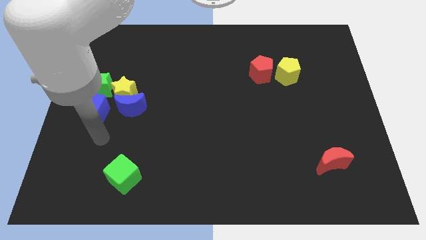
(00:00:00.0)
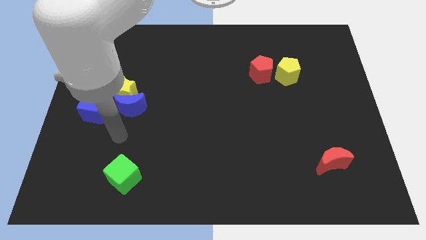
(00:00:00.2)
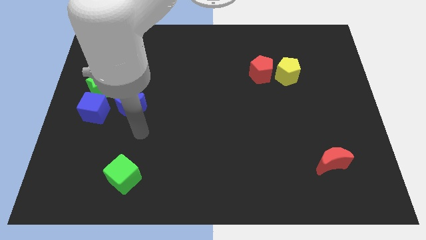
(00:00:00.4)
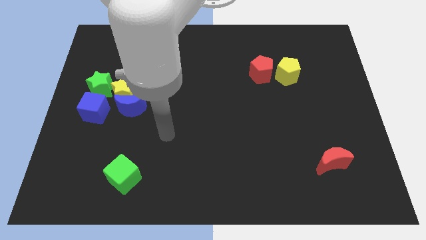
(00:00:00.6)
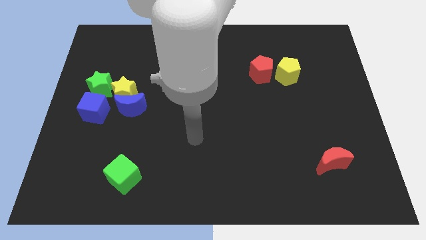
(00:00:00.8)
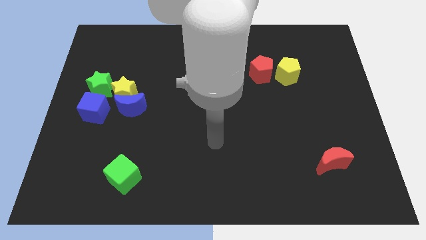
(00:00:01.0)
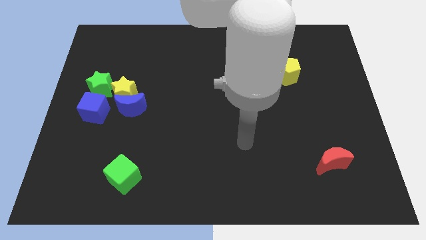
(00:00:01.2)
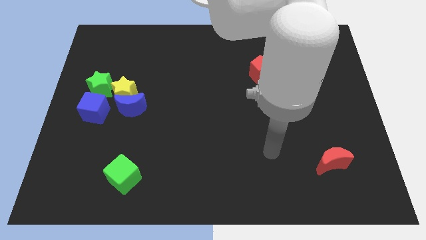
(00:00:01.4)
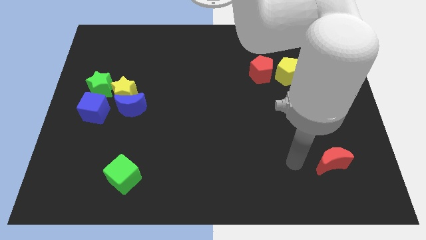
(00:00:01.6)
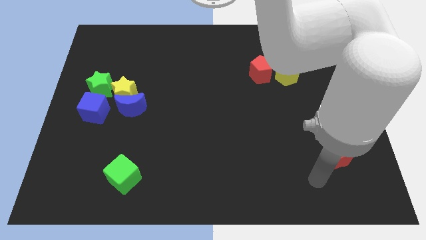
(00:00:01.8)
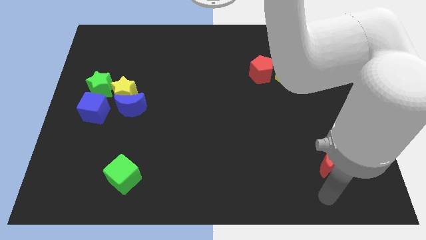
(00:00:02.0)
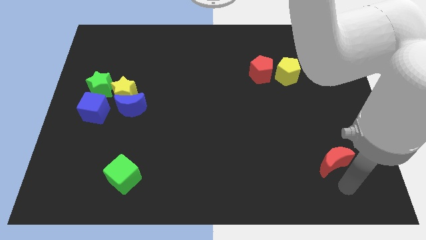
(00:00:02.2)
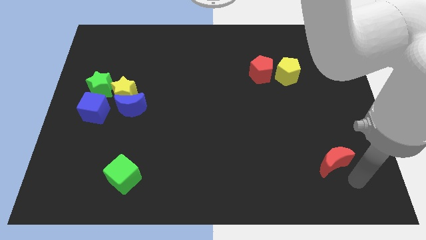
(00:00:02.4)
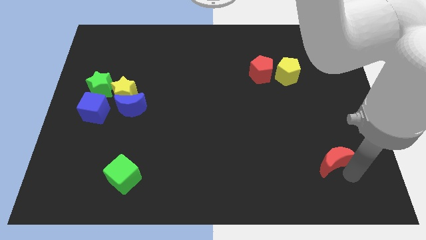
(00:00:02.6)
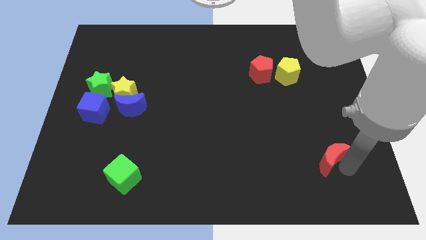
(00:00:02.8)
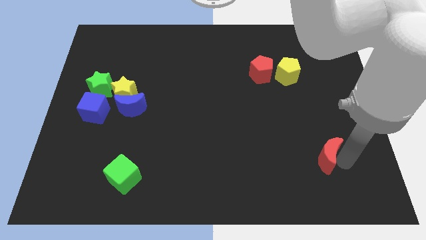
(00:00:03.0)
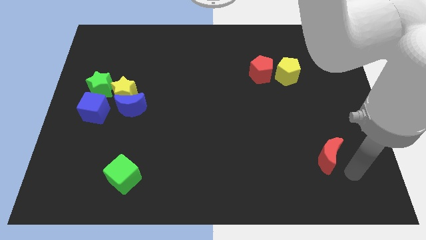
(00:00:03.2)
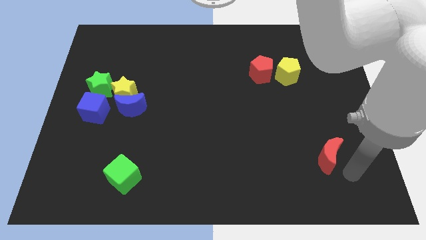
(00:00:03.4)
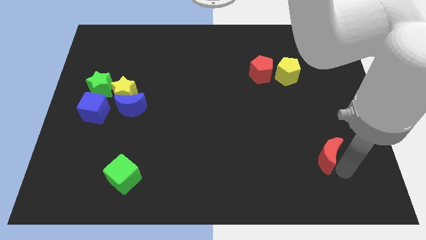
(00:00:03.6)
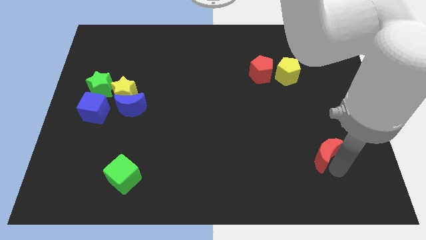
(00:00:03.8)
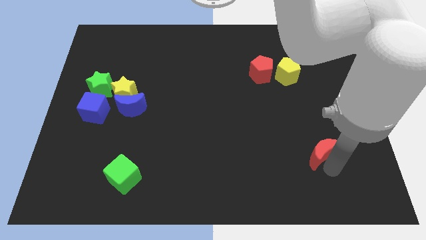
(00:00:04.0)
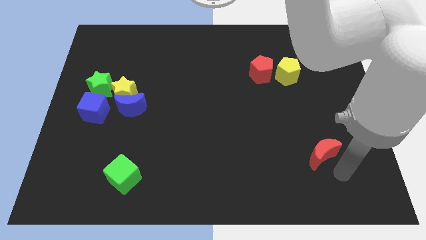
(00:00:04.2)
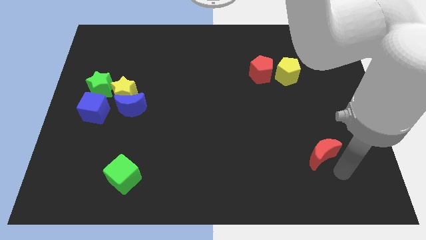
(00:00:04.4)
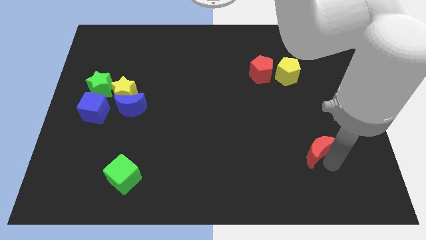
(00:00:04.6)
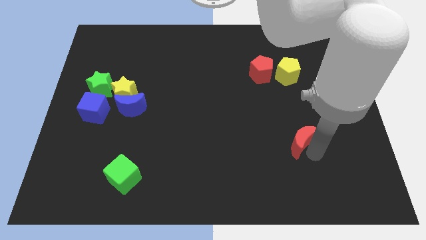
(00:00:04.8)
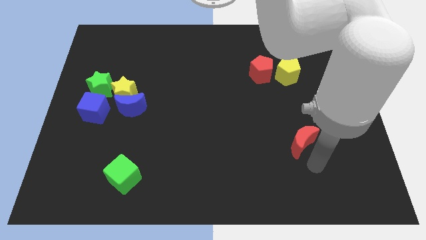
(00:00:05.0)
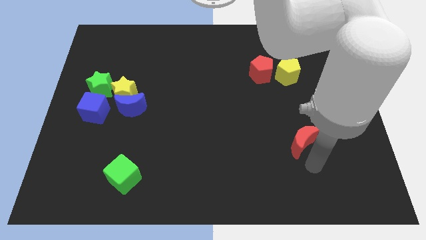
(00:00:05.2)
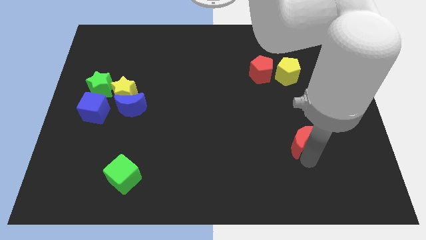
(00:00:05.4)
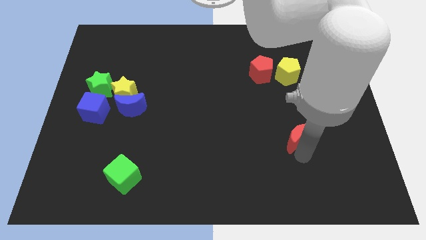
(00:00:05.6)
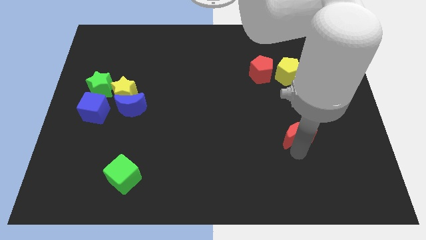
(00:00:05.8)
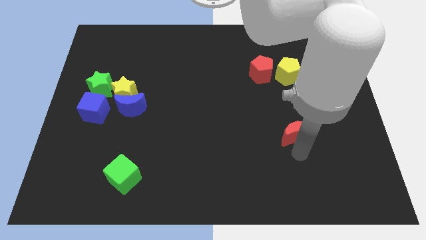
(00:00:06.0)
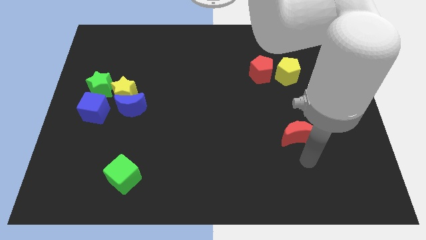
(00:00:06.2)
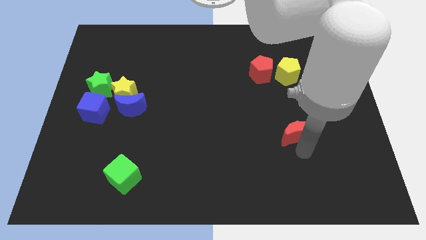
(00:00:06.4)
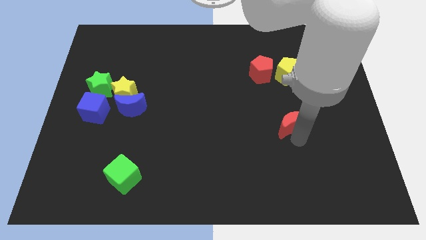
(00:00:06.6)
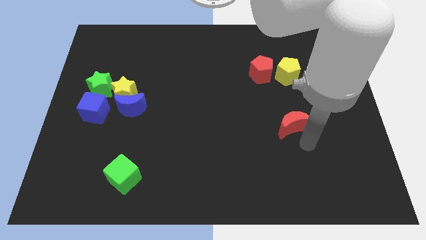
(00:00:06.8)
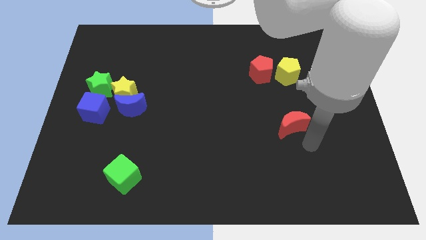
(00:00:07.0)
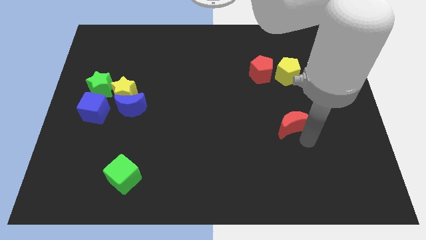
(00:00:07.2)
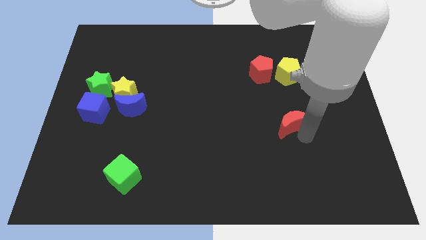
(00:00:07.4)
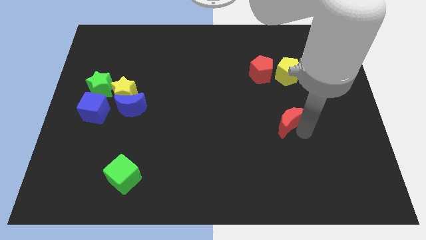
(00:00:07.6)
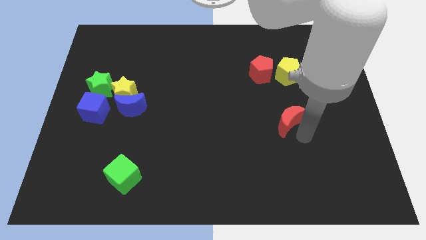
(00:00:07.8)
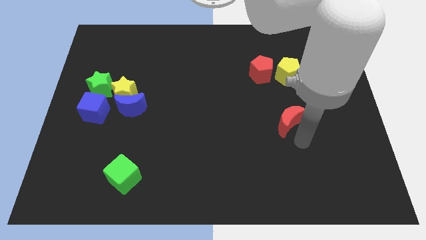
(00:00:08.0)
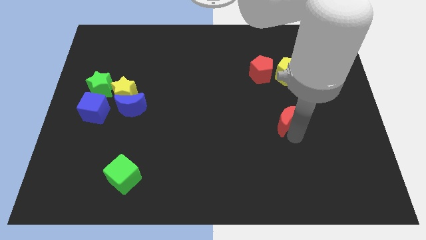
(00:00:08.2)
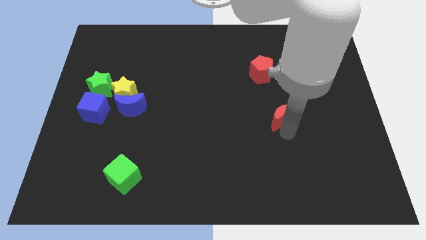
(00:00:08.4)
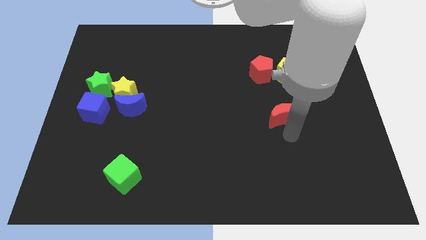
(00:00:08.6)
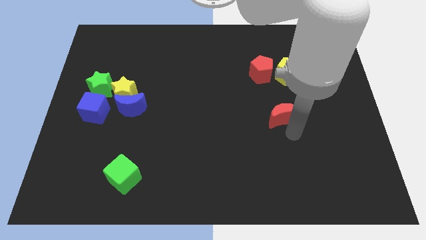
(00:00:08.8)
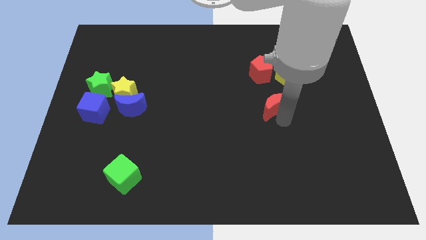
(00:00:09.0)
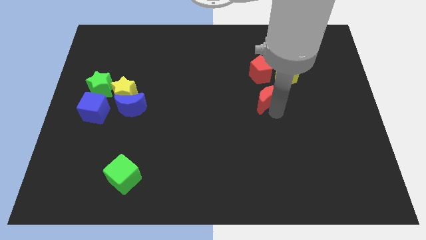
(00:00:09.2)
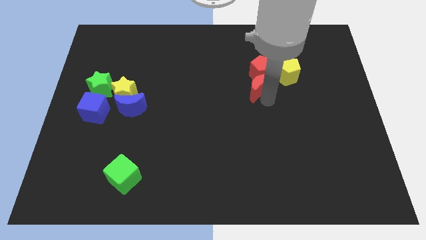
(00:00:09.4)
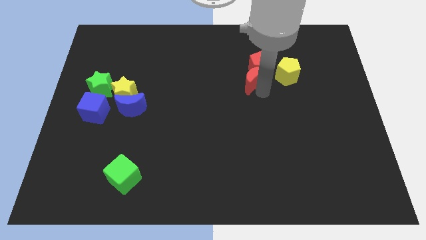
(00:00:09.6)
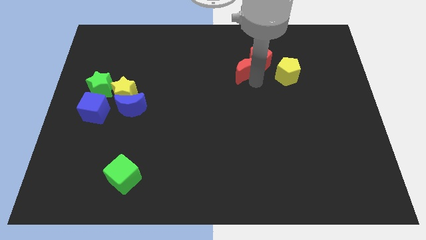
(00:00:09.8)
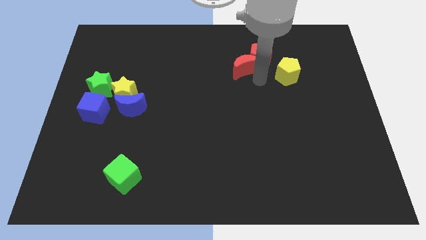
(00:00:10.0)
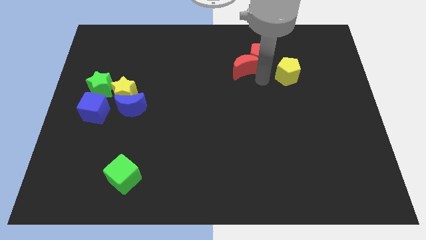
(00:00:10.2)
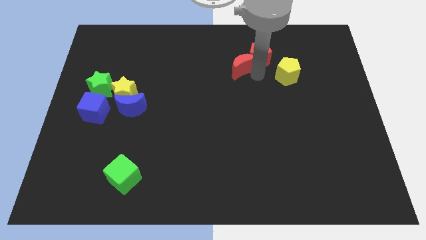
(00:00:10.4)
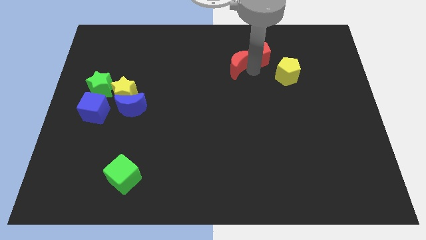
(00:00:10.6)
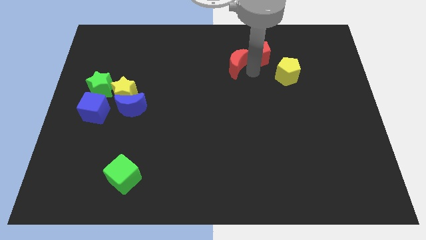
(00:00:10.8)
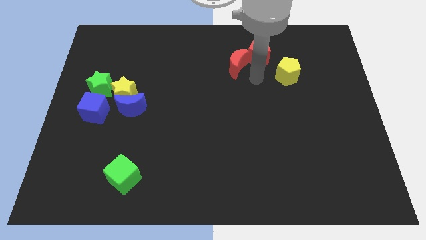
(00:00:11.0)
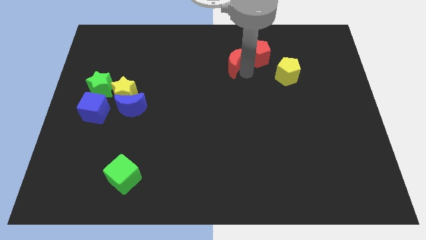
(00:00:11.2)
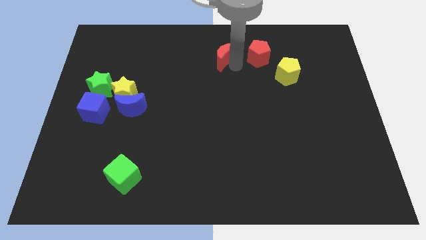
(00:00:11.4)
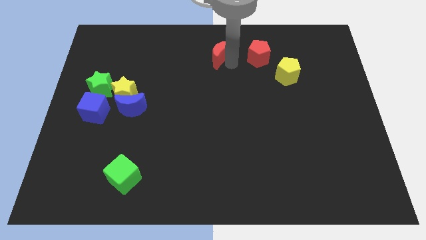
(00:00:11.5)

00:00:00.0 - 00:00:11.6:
slide the red moon to the top
